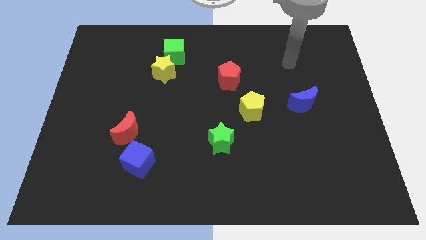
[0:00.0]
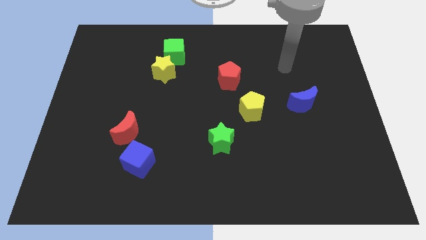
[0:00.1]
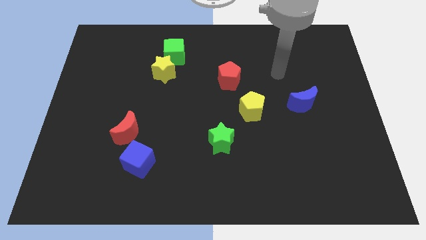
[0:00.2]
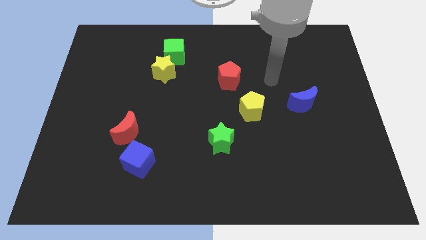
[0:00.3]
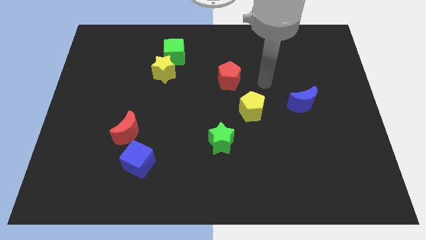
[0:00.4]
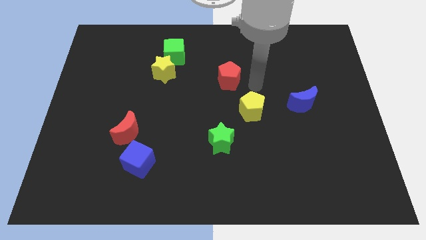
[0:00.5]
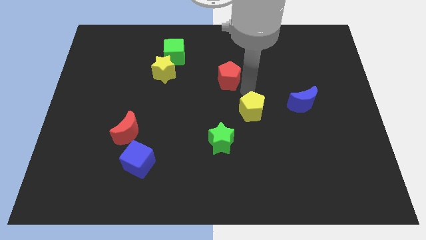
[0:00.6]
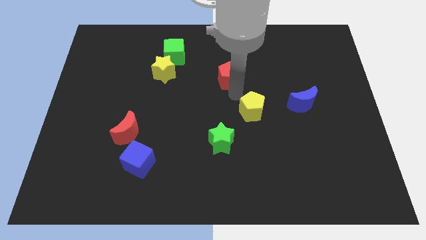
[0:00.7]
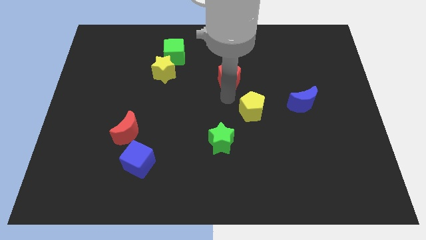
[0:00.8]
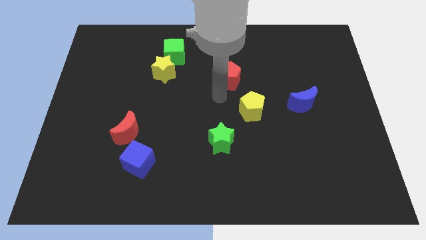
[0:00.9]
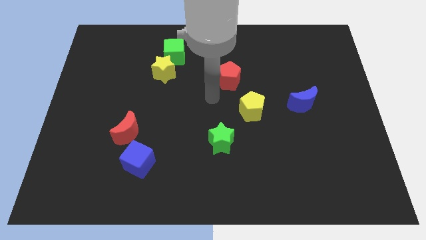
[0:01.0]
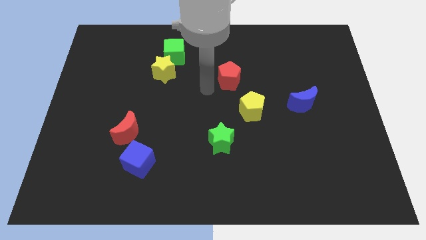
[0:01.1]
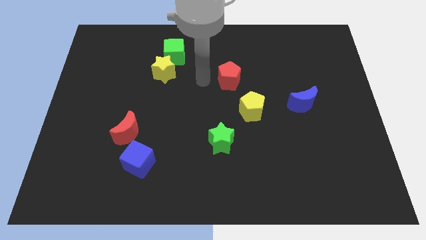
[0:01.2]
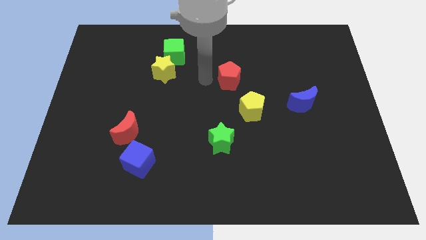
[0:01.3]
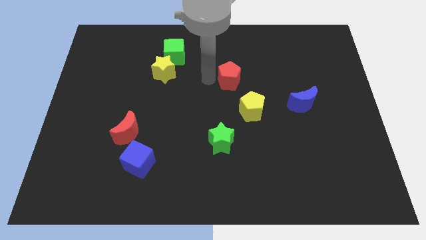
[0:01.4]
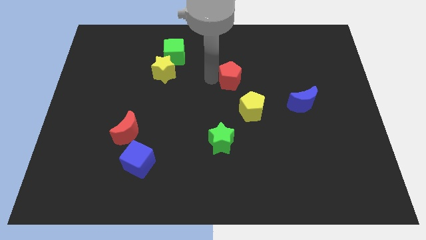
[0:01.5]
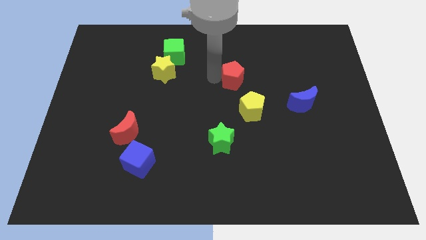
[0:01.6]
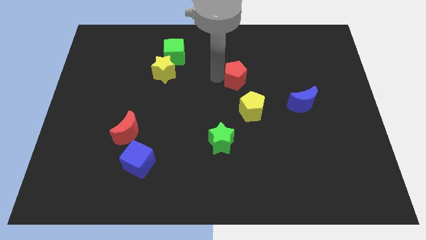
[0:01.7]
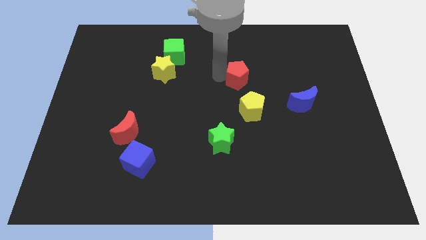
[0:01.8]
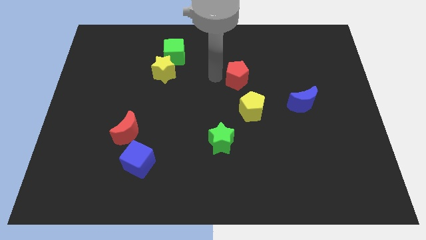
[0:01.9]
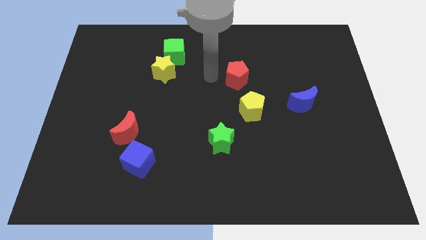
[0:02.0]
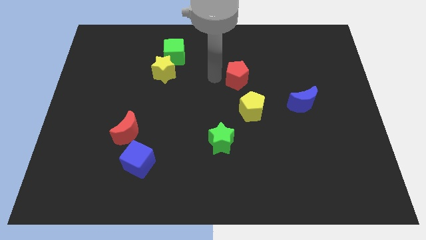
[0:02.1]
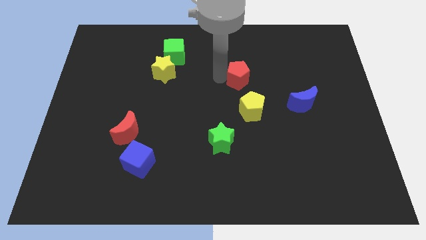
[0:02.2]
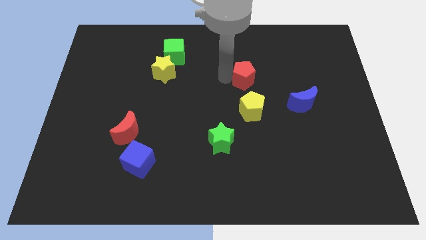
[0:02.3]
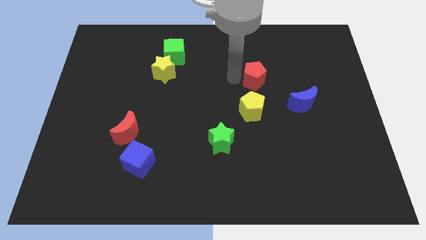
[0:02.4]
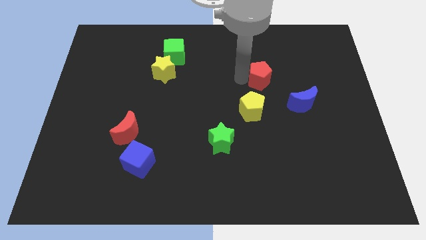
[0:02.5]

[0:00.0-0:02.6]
push the red pentagon somewhat right

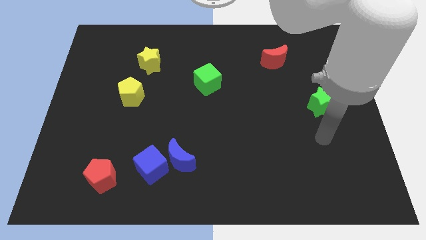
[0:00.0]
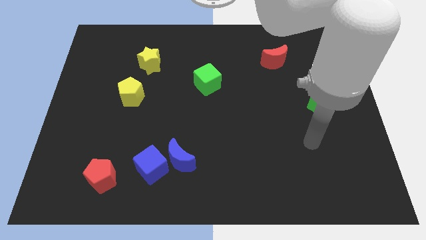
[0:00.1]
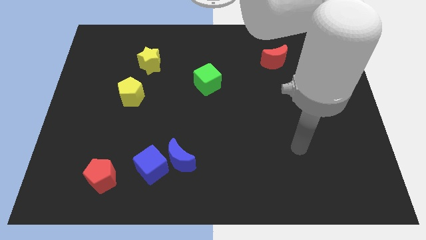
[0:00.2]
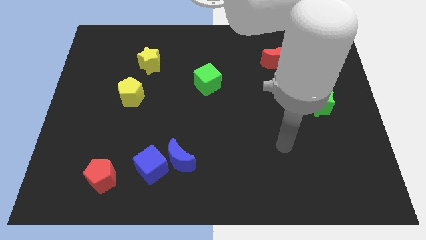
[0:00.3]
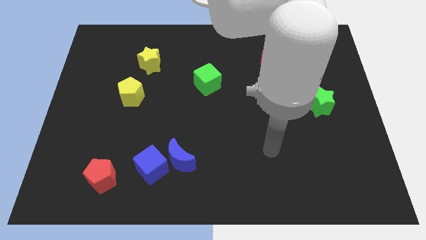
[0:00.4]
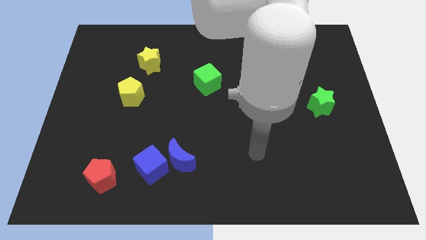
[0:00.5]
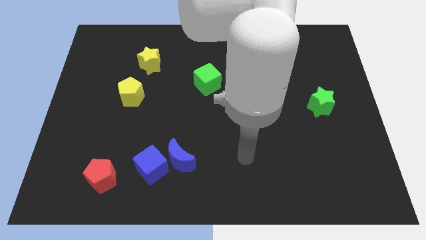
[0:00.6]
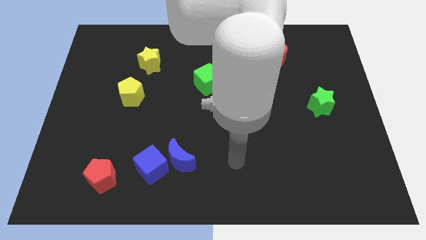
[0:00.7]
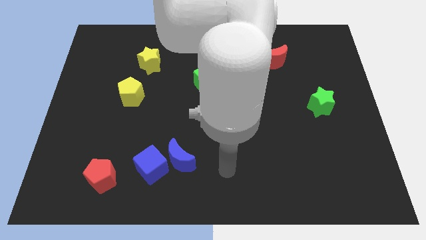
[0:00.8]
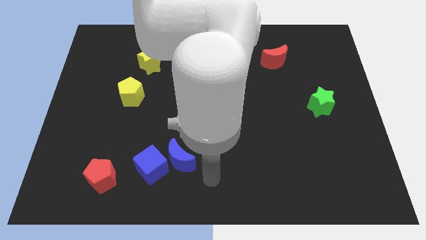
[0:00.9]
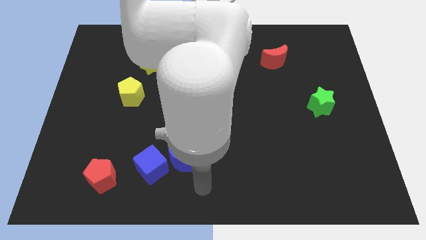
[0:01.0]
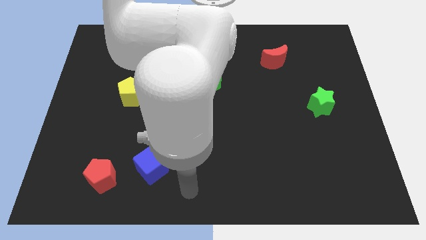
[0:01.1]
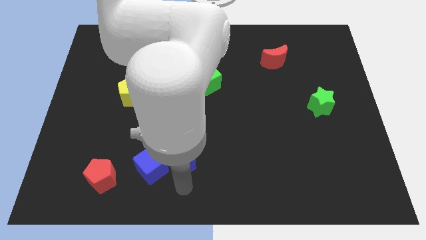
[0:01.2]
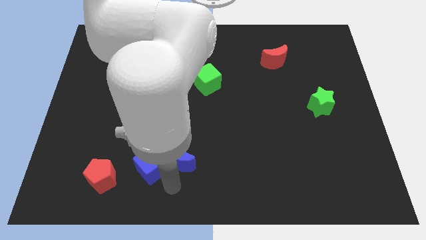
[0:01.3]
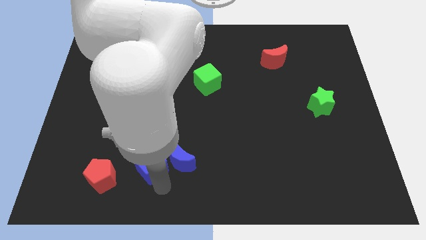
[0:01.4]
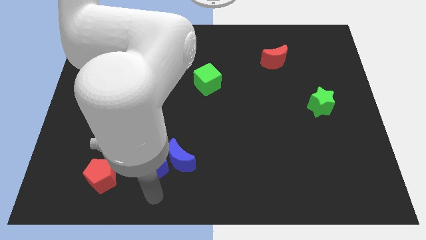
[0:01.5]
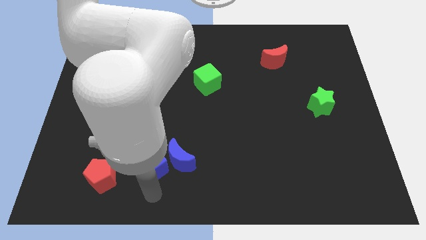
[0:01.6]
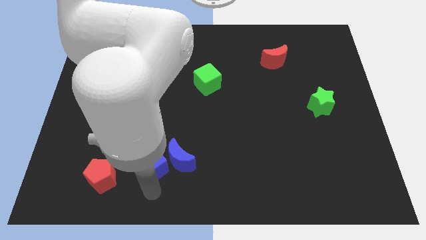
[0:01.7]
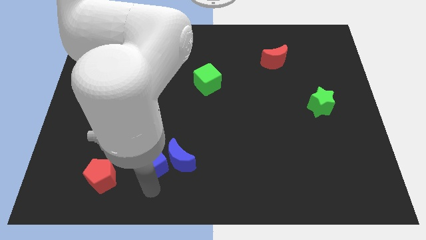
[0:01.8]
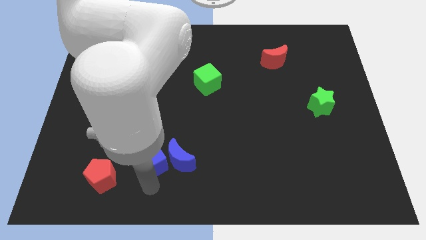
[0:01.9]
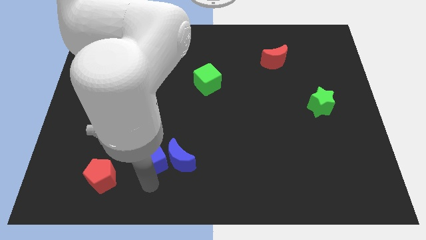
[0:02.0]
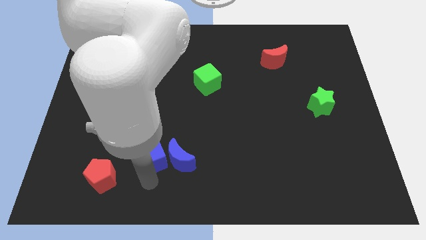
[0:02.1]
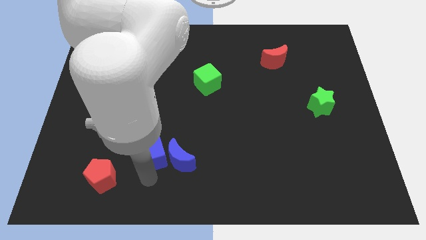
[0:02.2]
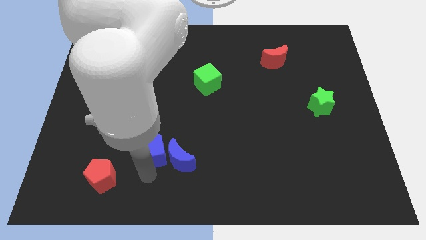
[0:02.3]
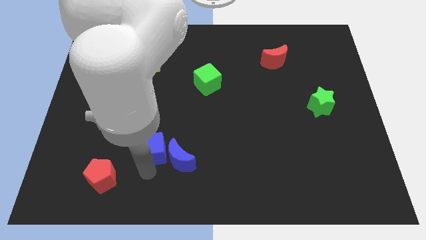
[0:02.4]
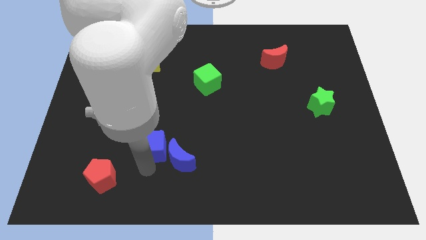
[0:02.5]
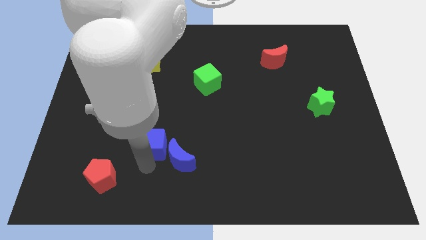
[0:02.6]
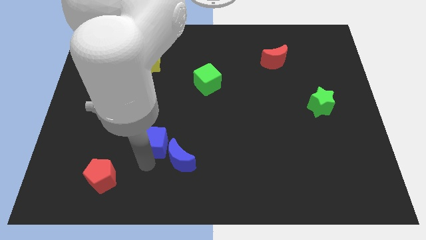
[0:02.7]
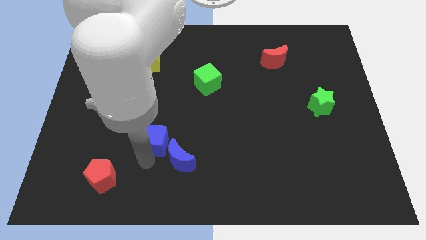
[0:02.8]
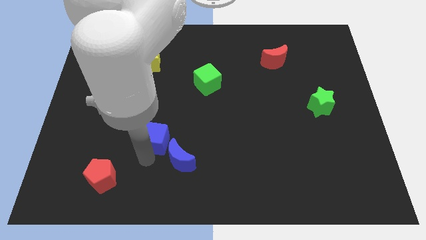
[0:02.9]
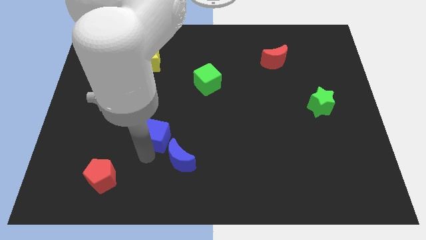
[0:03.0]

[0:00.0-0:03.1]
move the blue cube upwards a little bit

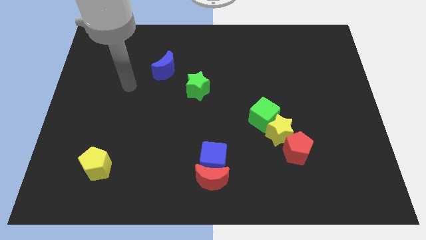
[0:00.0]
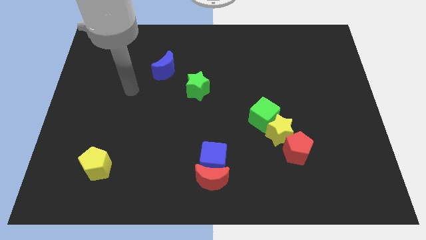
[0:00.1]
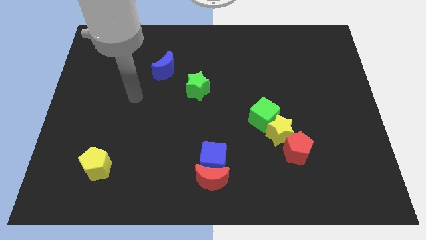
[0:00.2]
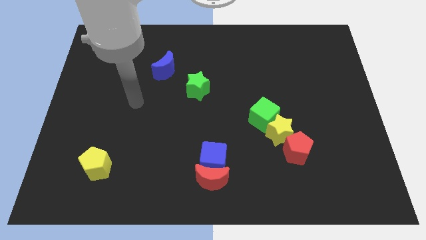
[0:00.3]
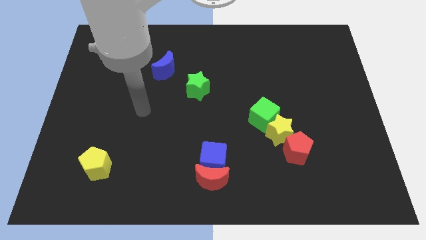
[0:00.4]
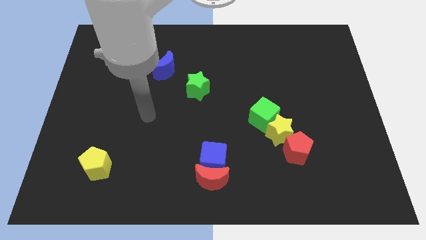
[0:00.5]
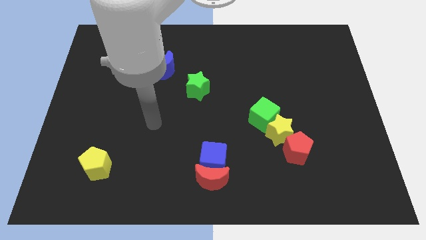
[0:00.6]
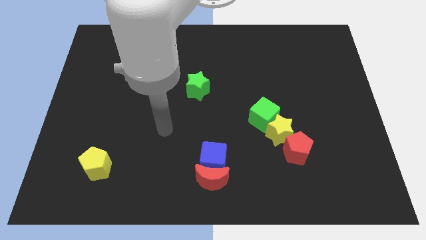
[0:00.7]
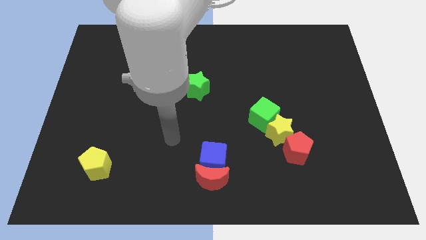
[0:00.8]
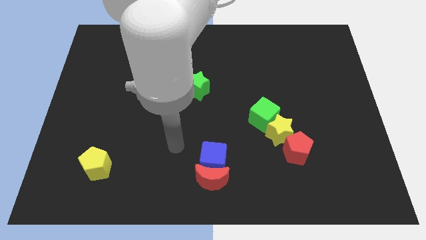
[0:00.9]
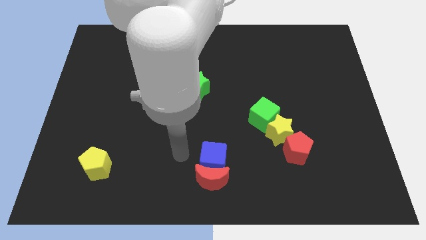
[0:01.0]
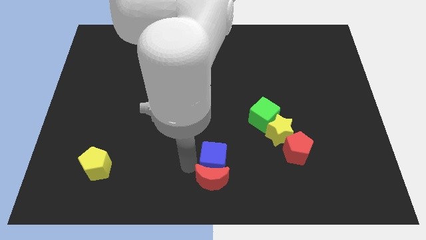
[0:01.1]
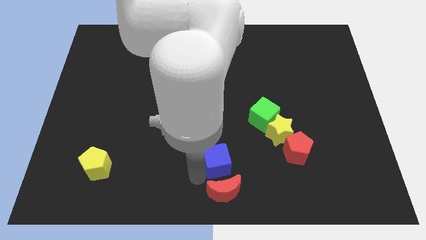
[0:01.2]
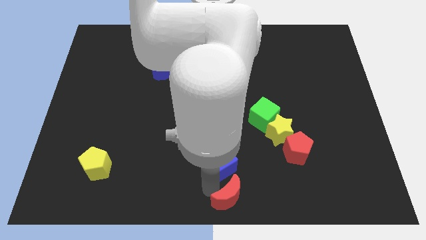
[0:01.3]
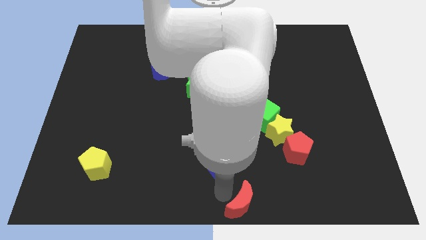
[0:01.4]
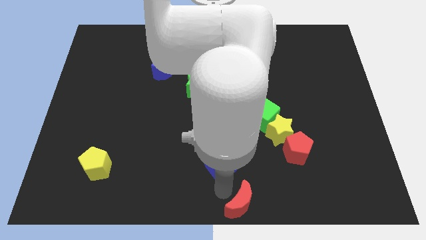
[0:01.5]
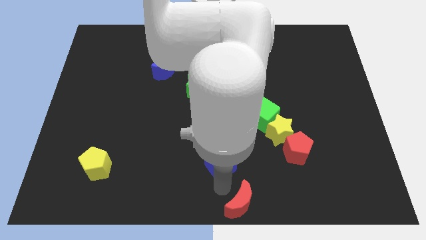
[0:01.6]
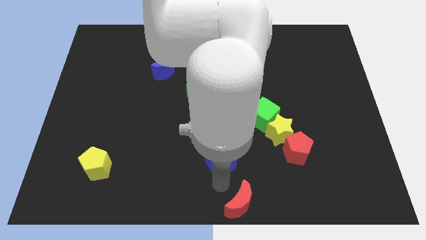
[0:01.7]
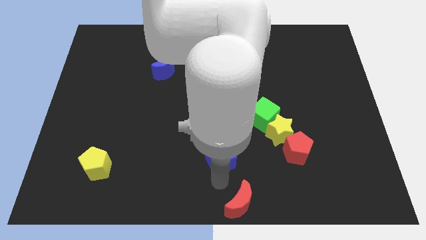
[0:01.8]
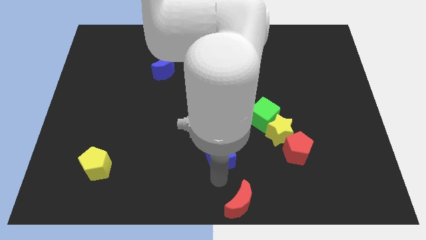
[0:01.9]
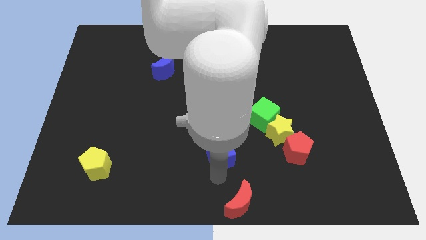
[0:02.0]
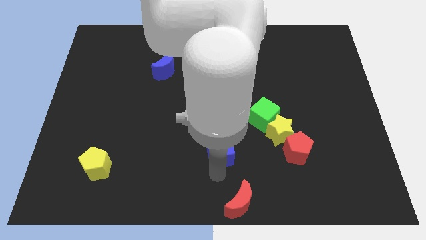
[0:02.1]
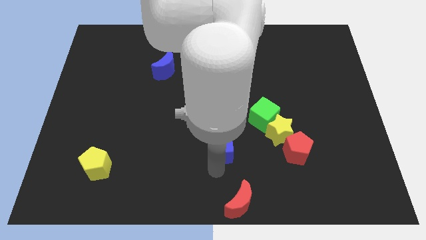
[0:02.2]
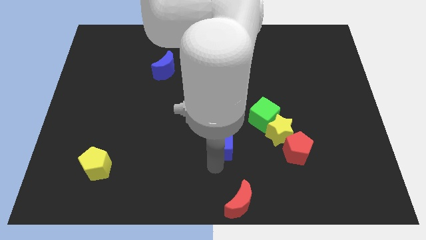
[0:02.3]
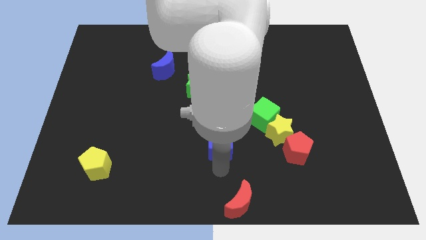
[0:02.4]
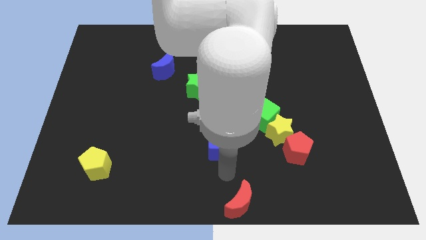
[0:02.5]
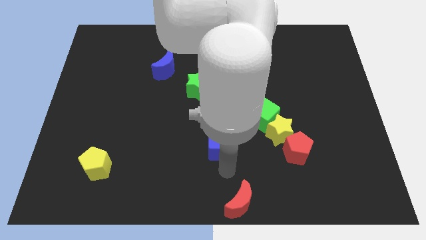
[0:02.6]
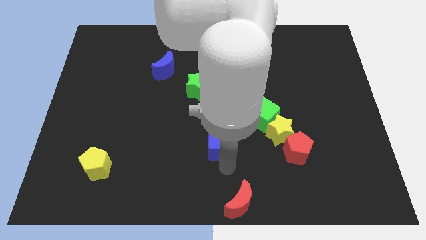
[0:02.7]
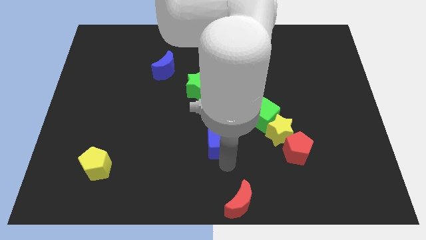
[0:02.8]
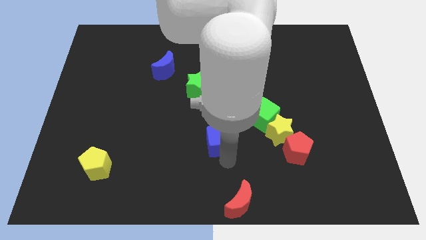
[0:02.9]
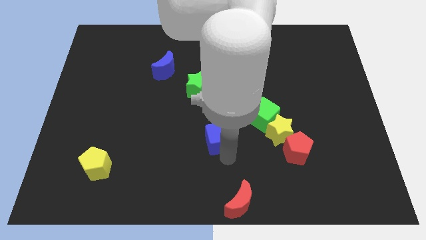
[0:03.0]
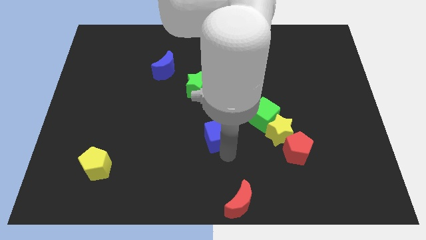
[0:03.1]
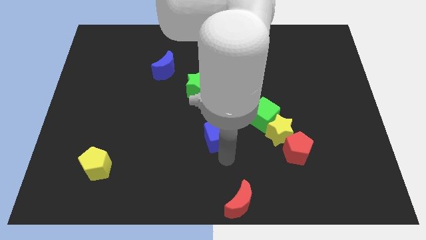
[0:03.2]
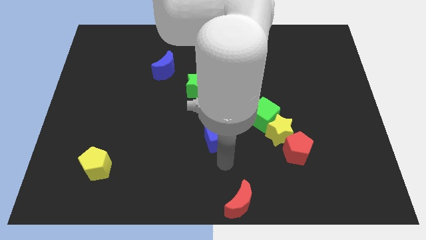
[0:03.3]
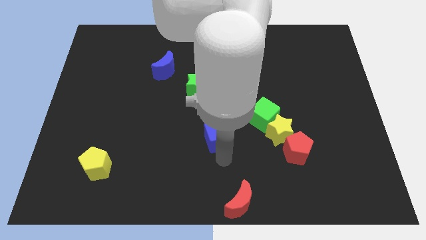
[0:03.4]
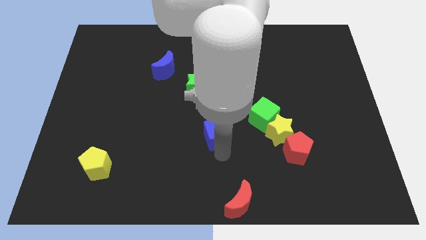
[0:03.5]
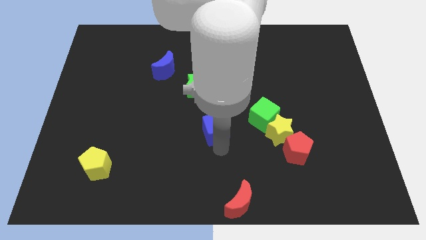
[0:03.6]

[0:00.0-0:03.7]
push the blue cube slightly upwards
